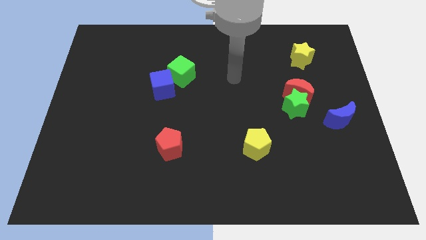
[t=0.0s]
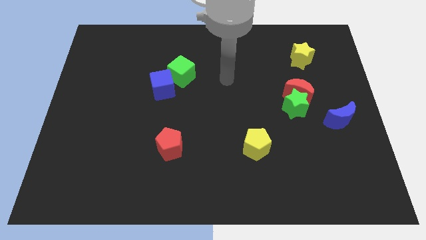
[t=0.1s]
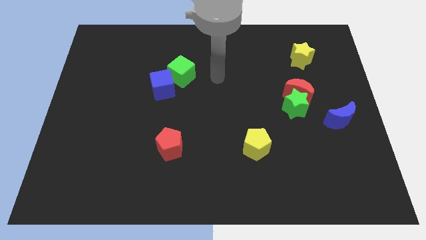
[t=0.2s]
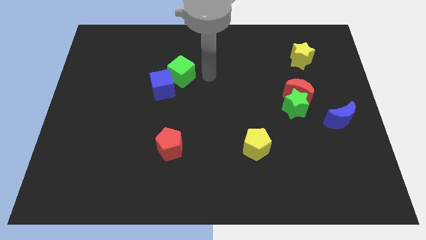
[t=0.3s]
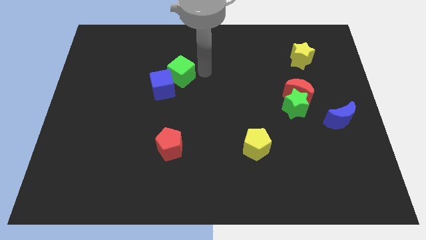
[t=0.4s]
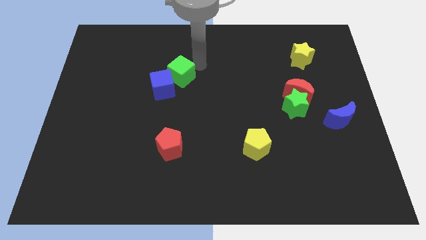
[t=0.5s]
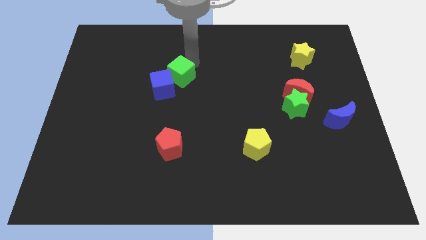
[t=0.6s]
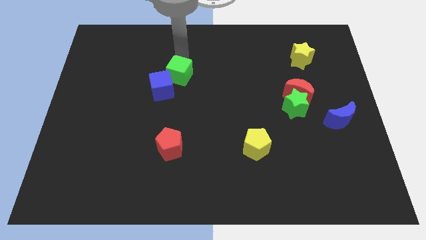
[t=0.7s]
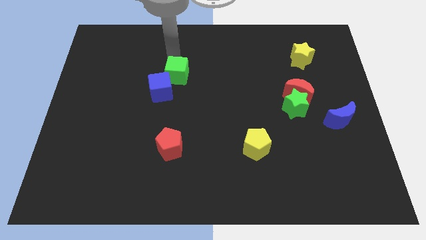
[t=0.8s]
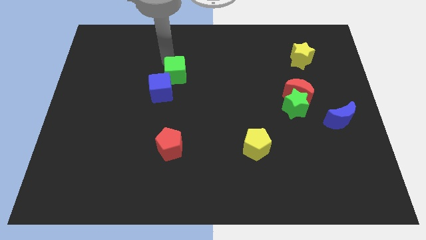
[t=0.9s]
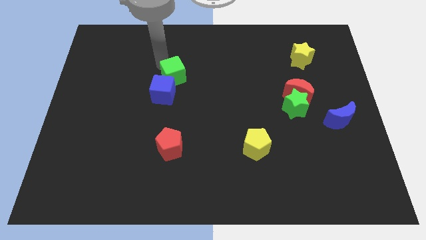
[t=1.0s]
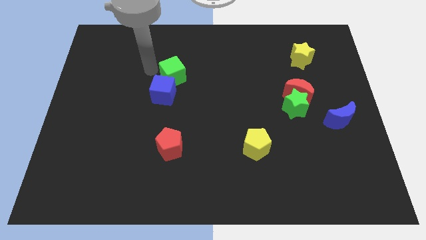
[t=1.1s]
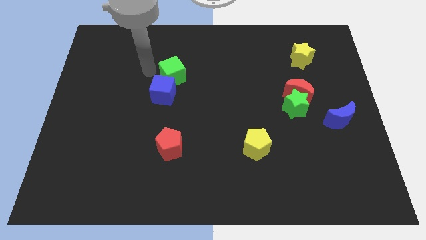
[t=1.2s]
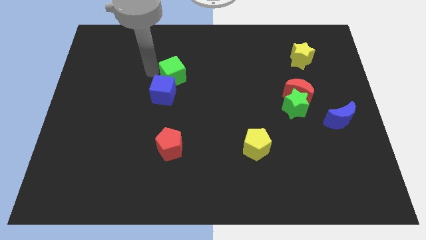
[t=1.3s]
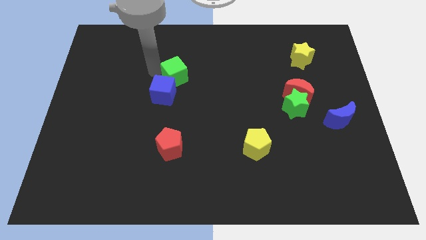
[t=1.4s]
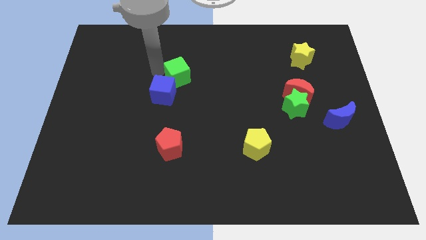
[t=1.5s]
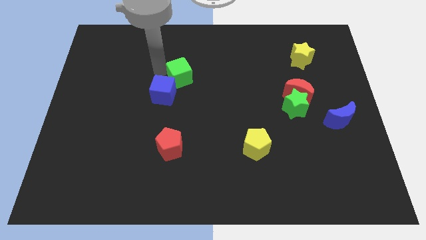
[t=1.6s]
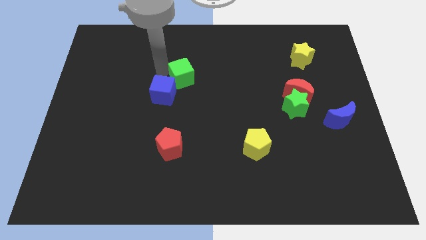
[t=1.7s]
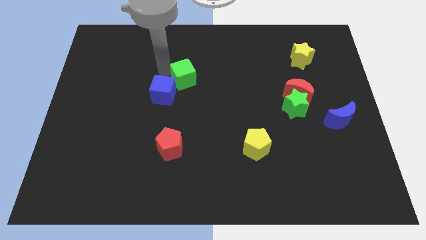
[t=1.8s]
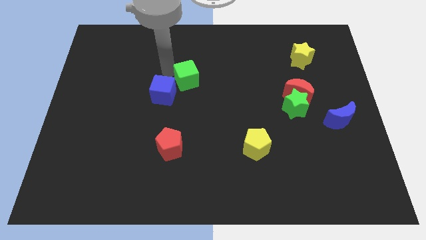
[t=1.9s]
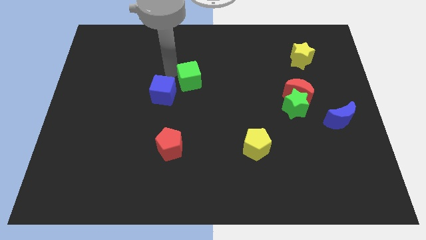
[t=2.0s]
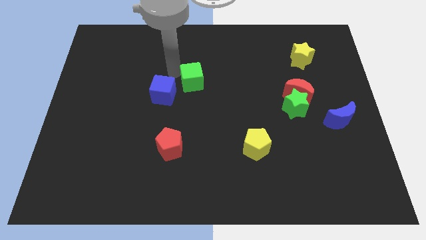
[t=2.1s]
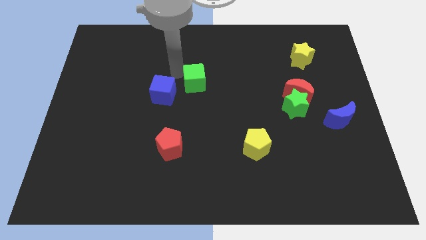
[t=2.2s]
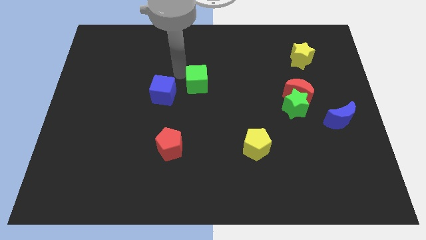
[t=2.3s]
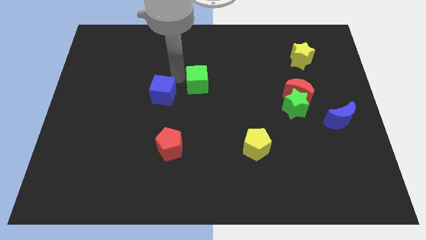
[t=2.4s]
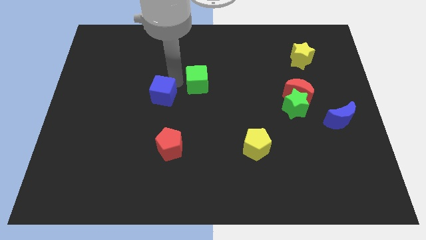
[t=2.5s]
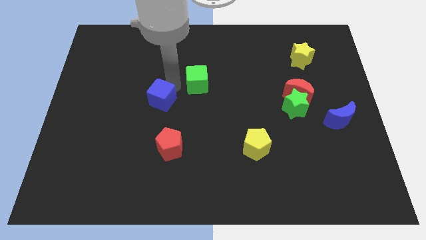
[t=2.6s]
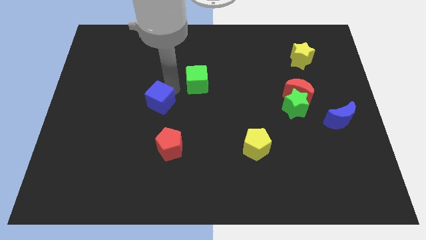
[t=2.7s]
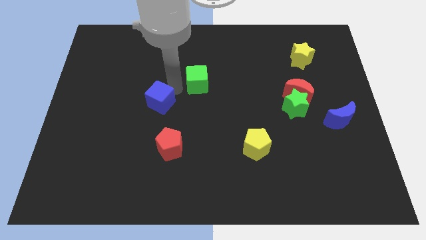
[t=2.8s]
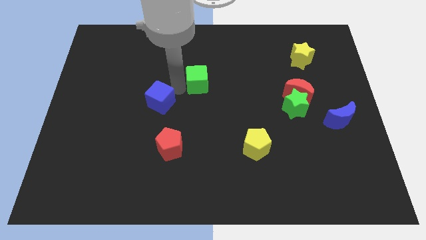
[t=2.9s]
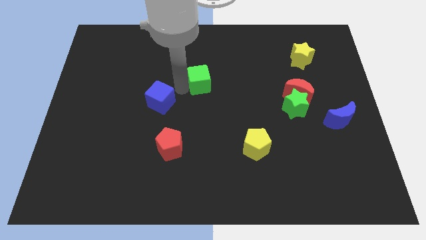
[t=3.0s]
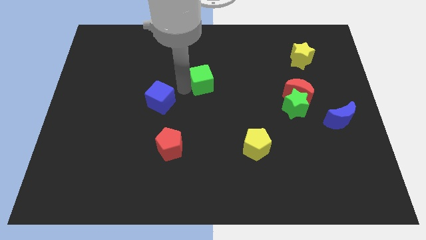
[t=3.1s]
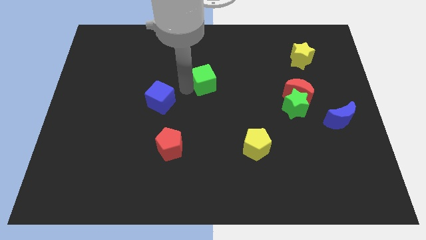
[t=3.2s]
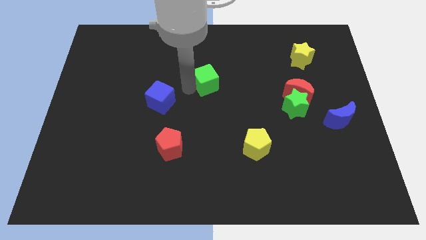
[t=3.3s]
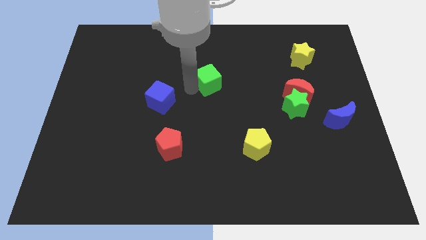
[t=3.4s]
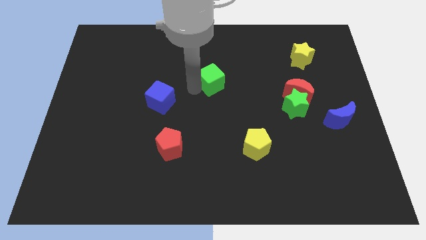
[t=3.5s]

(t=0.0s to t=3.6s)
push the green cube right a bit

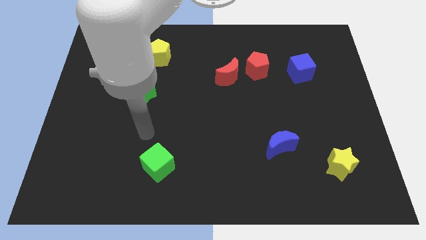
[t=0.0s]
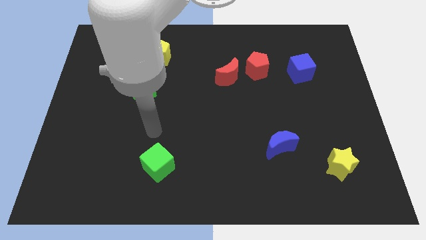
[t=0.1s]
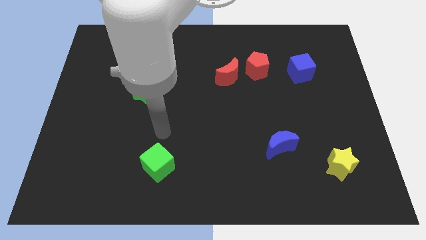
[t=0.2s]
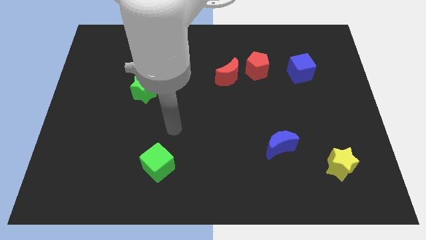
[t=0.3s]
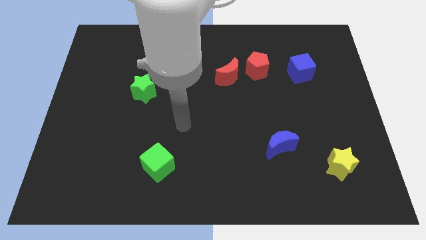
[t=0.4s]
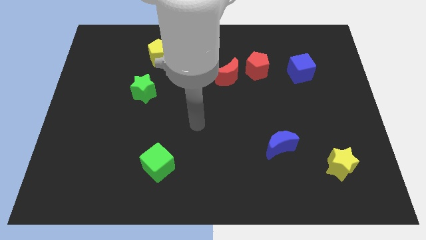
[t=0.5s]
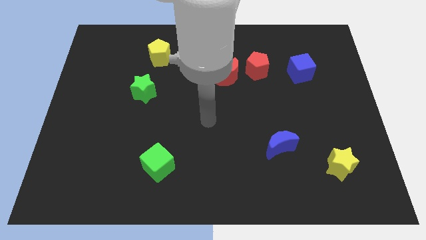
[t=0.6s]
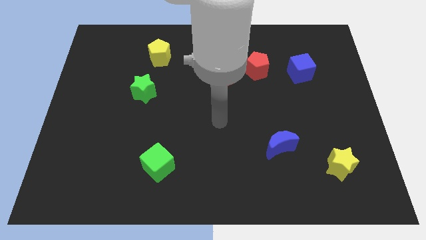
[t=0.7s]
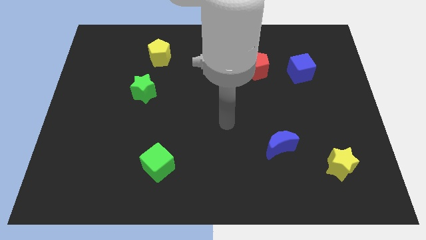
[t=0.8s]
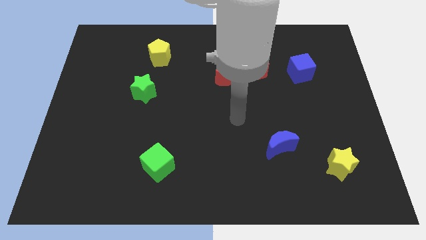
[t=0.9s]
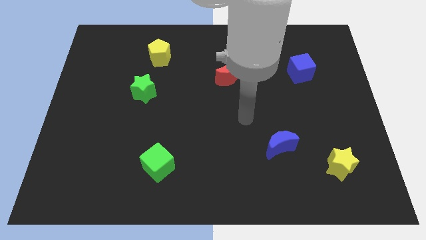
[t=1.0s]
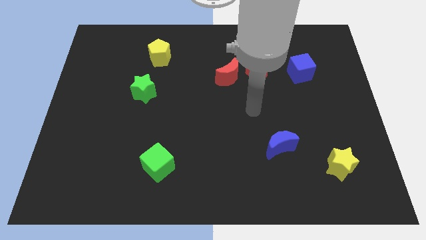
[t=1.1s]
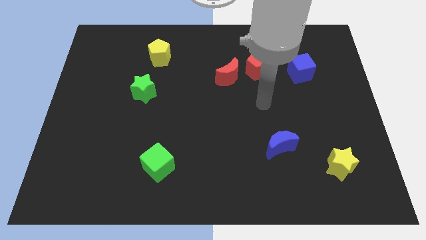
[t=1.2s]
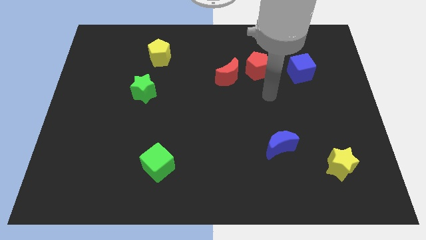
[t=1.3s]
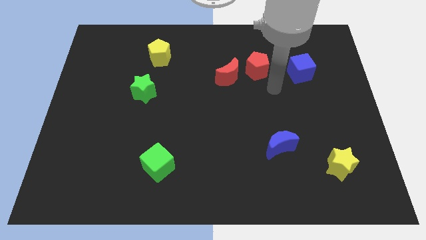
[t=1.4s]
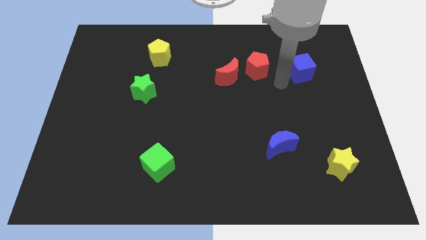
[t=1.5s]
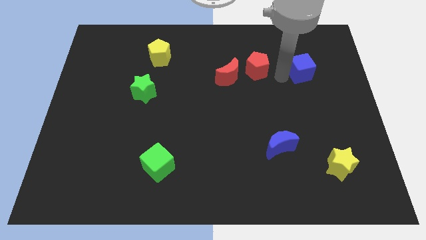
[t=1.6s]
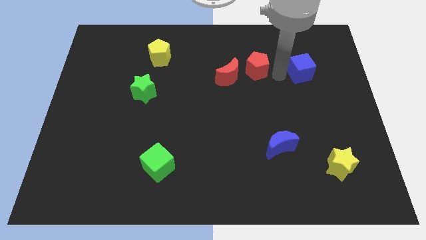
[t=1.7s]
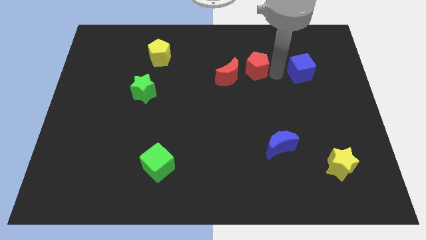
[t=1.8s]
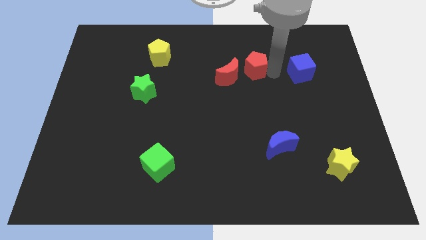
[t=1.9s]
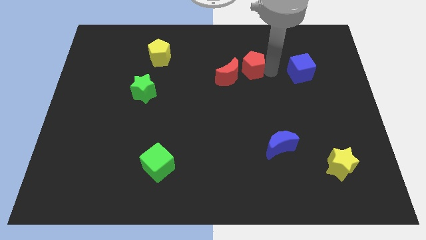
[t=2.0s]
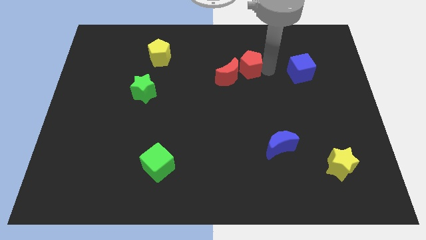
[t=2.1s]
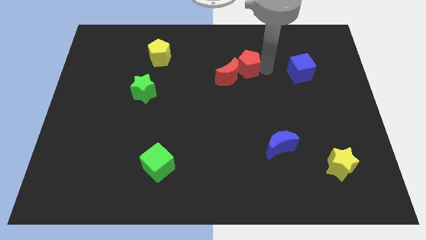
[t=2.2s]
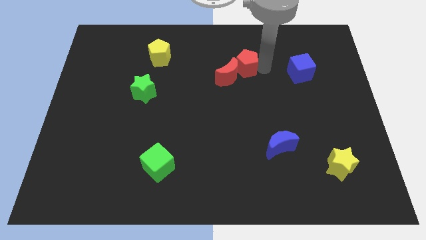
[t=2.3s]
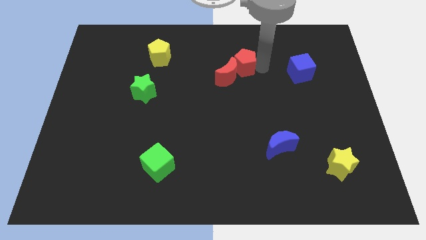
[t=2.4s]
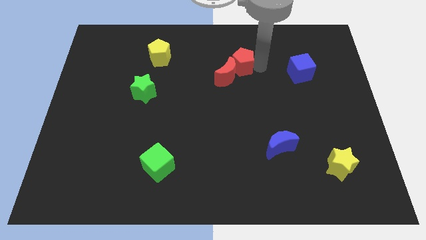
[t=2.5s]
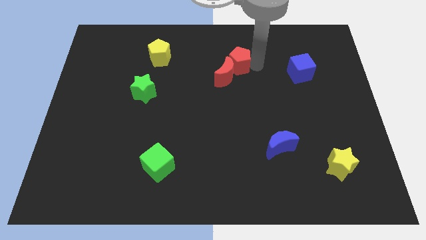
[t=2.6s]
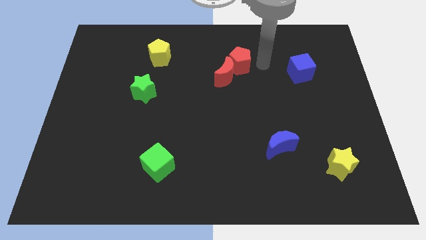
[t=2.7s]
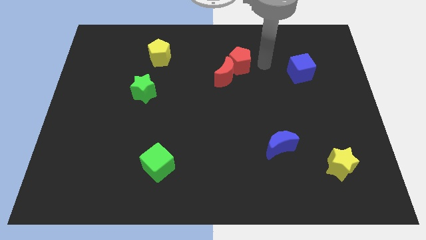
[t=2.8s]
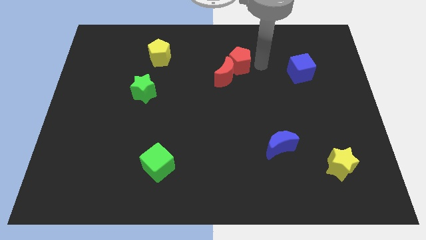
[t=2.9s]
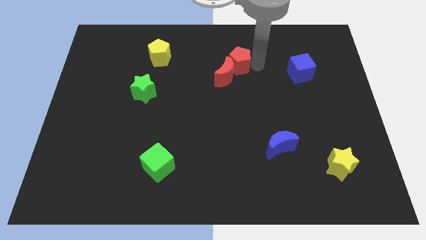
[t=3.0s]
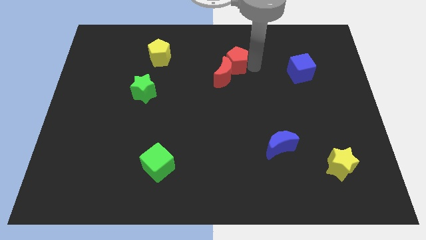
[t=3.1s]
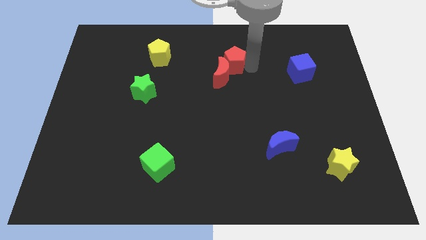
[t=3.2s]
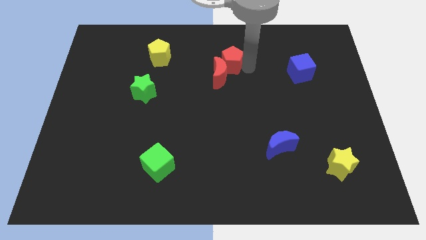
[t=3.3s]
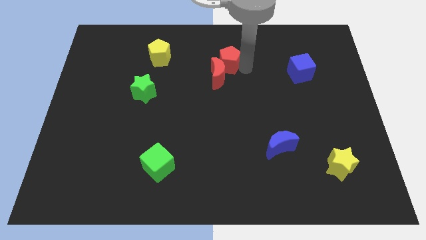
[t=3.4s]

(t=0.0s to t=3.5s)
slightly move the red pentagon left

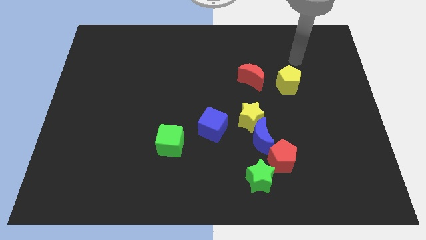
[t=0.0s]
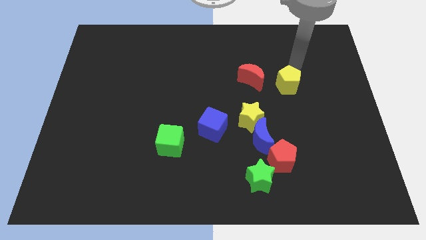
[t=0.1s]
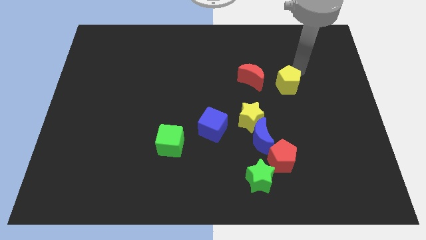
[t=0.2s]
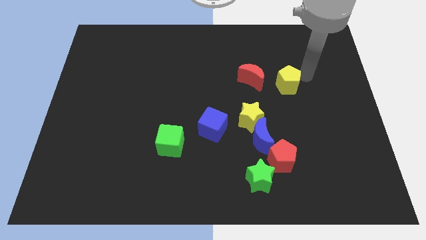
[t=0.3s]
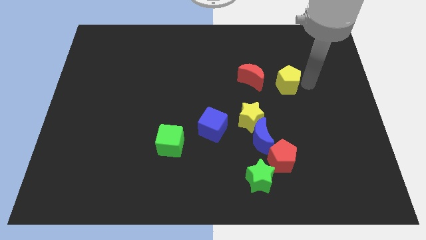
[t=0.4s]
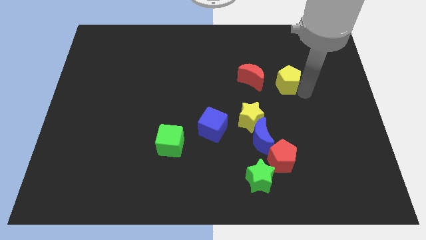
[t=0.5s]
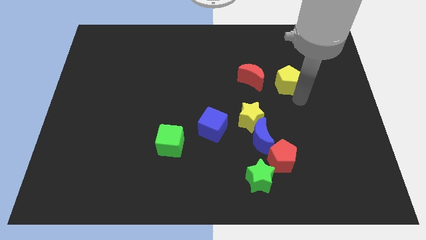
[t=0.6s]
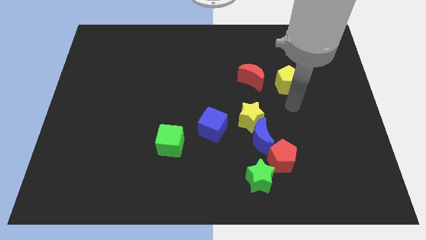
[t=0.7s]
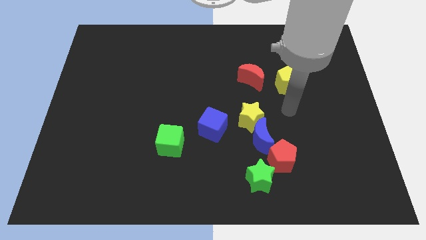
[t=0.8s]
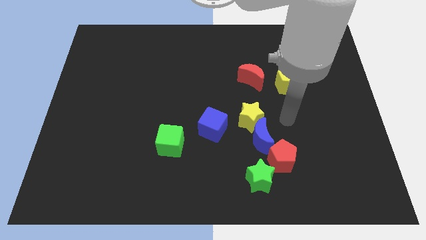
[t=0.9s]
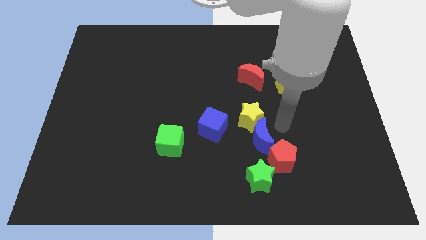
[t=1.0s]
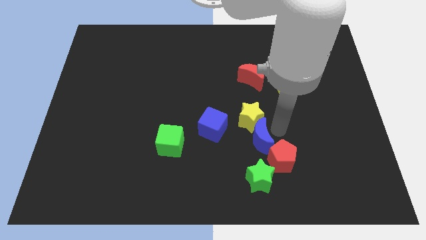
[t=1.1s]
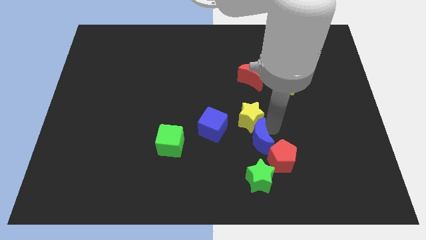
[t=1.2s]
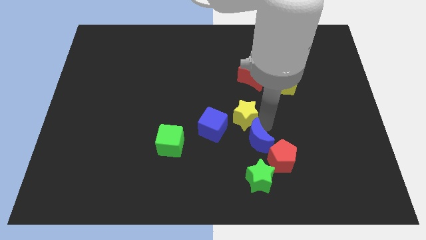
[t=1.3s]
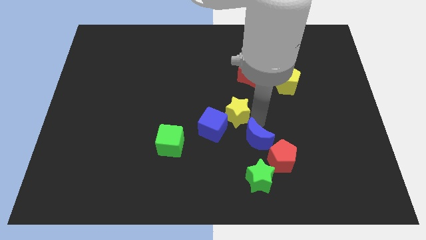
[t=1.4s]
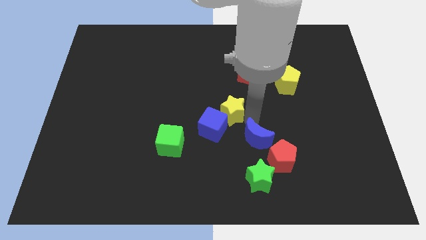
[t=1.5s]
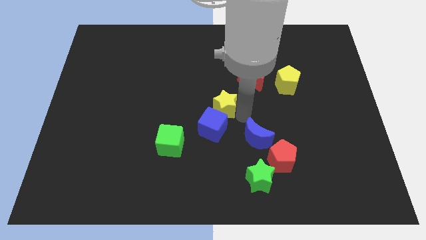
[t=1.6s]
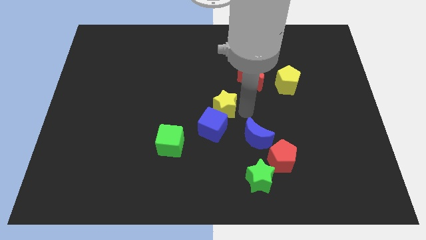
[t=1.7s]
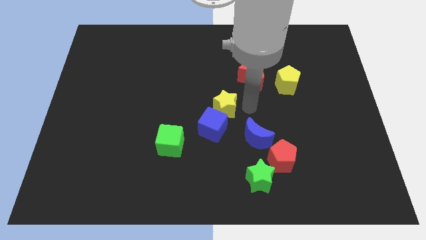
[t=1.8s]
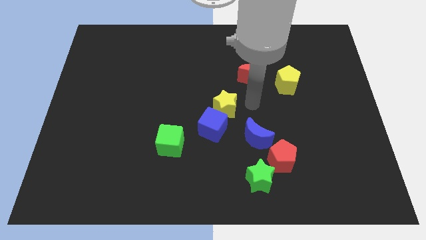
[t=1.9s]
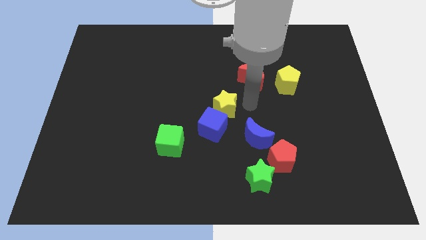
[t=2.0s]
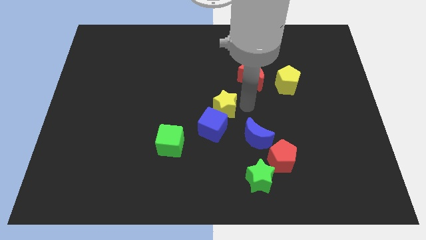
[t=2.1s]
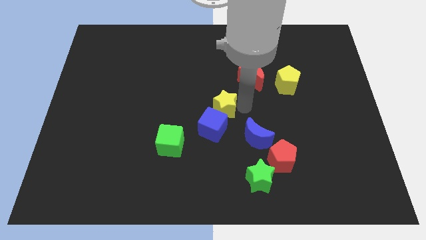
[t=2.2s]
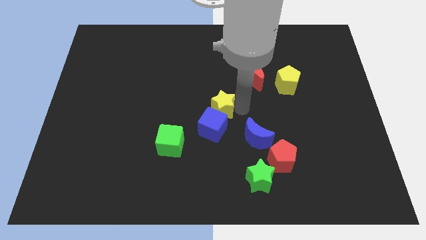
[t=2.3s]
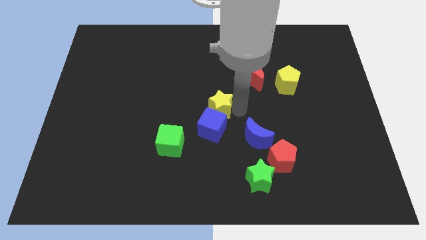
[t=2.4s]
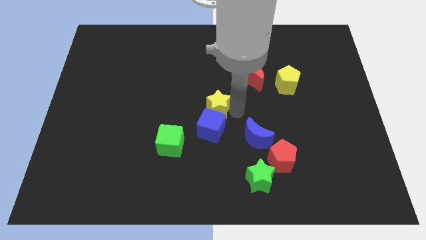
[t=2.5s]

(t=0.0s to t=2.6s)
slide the yellow star a bit left
